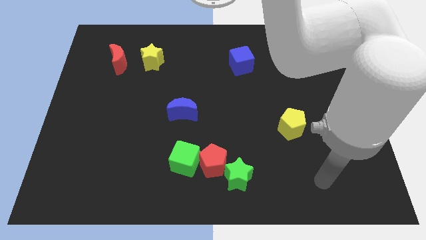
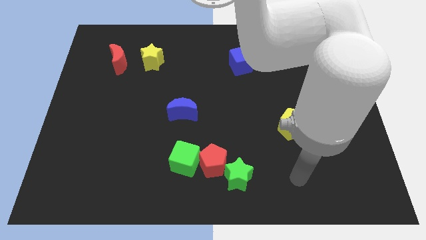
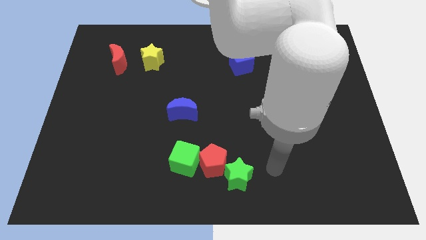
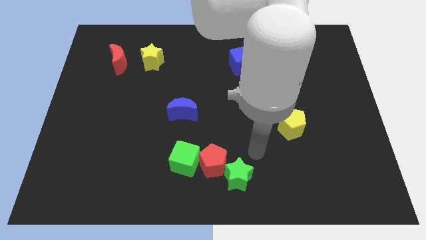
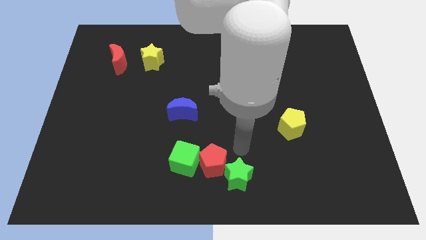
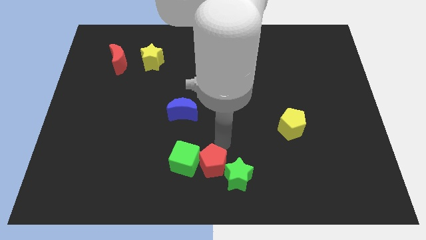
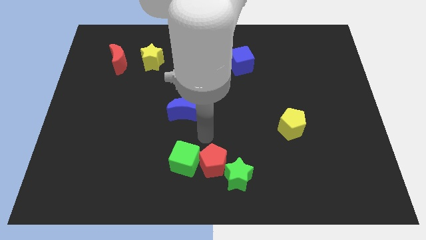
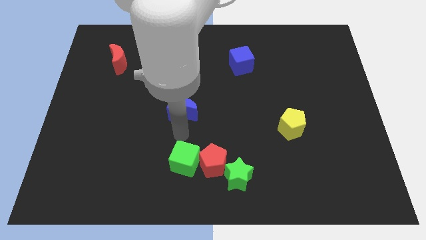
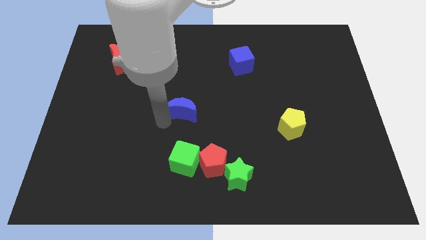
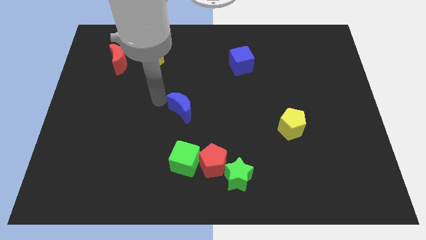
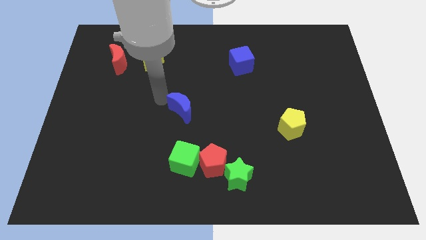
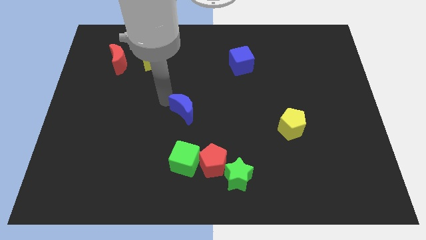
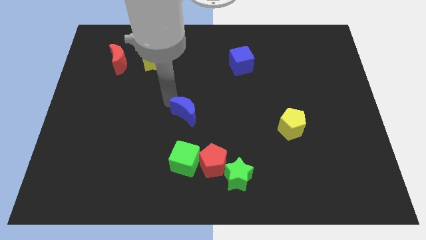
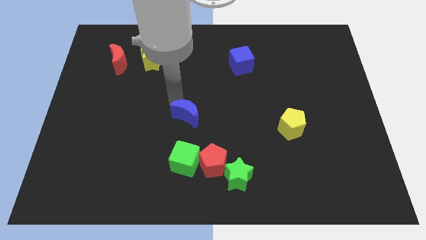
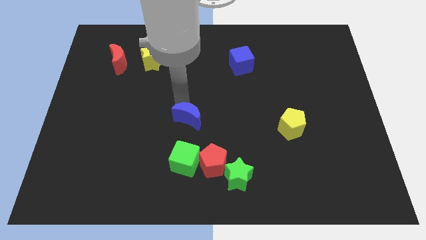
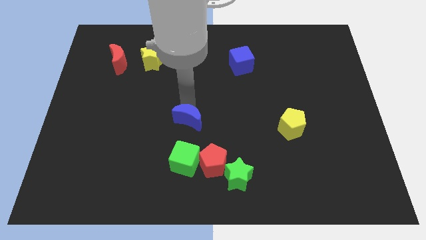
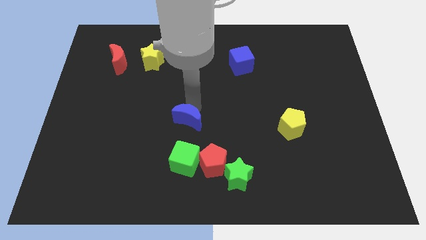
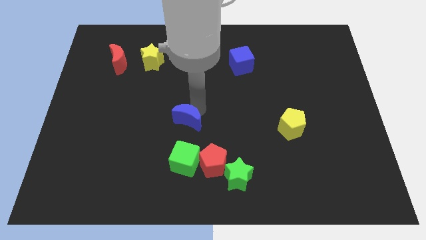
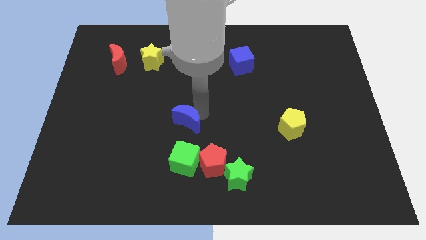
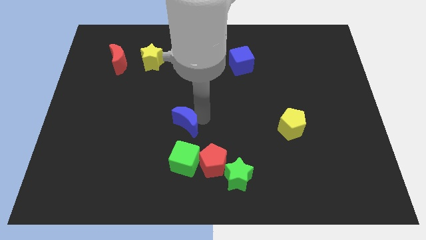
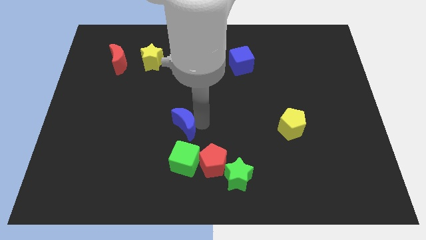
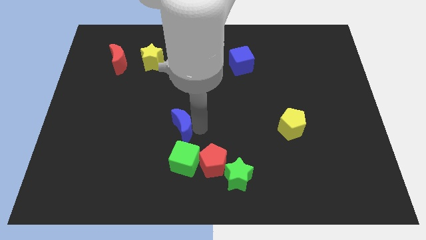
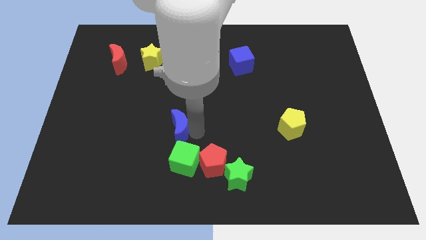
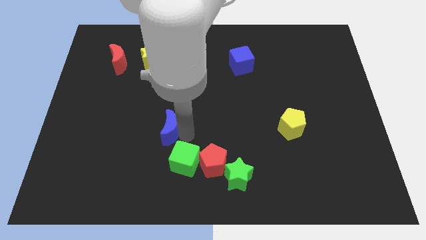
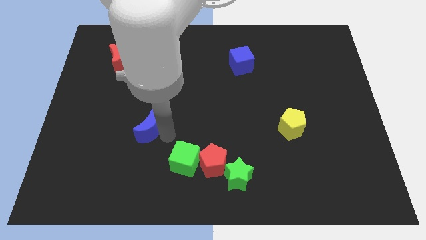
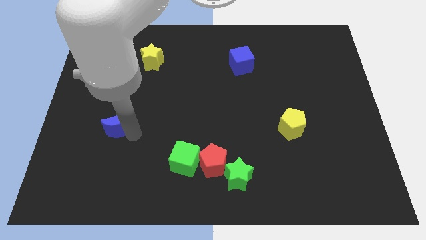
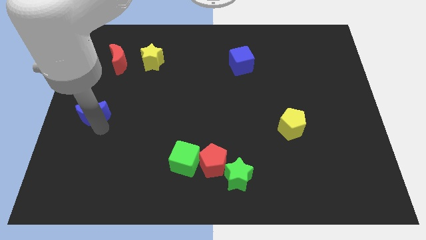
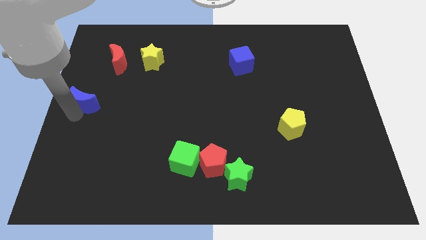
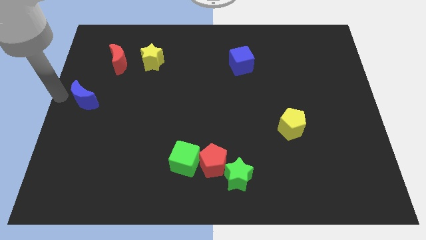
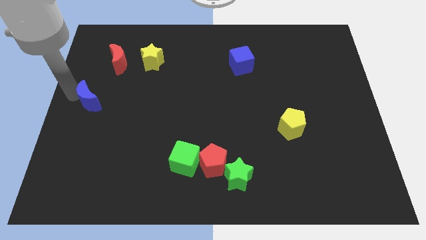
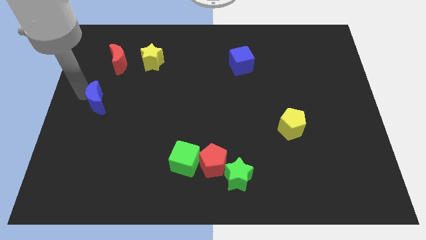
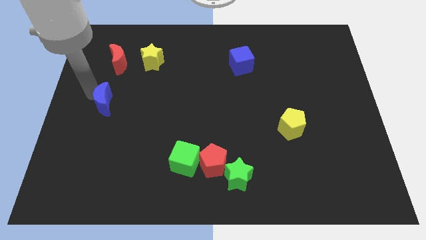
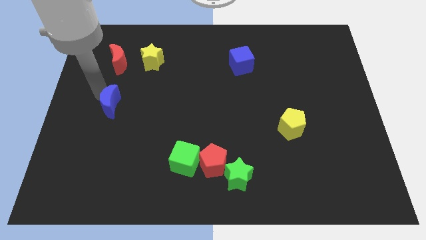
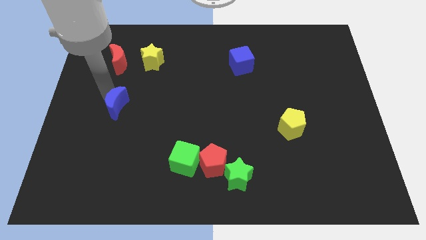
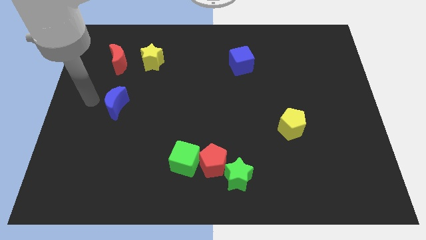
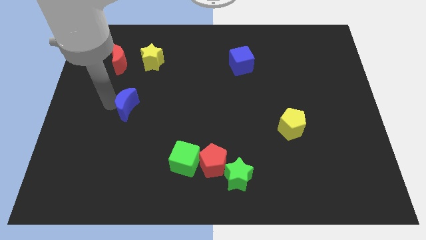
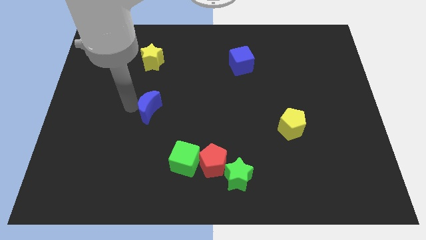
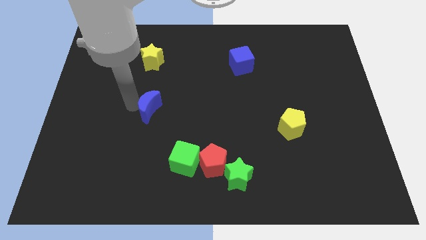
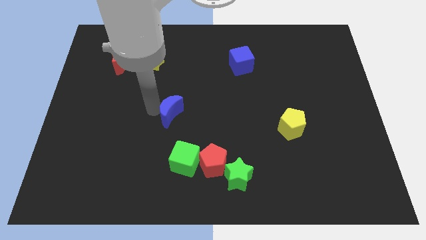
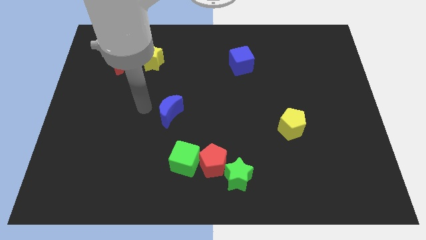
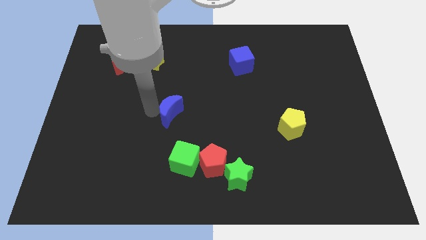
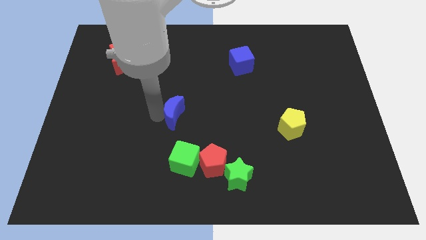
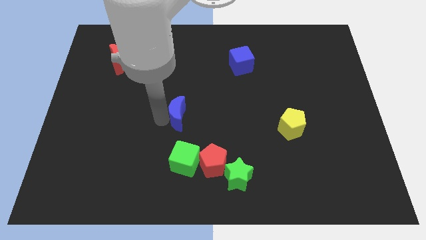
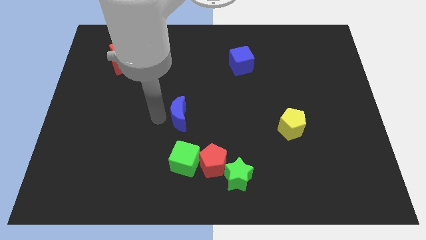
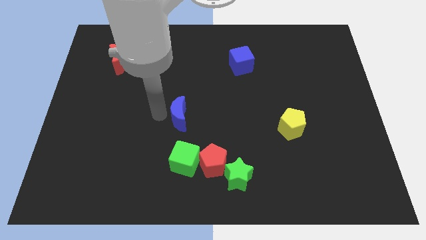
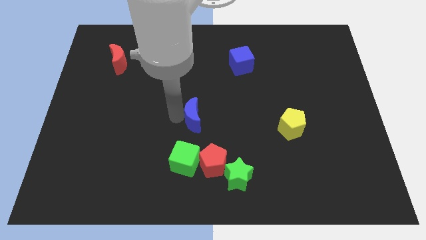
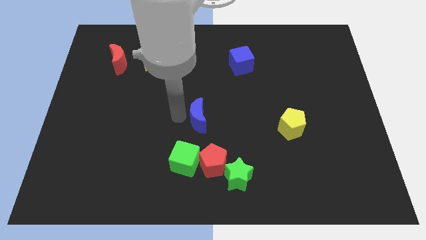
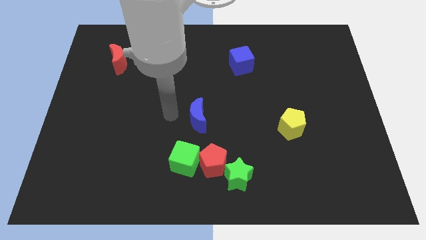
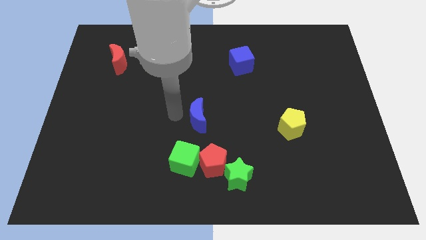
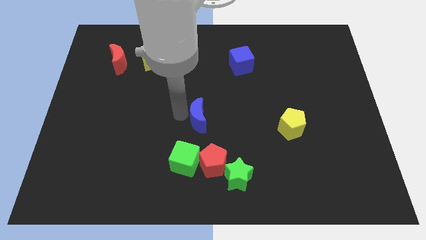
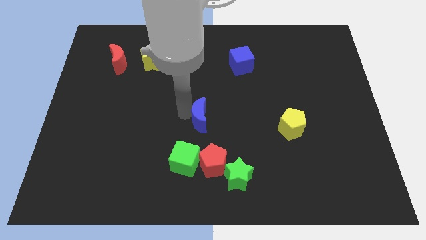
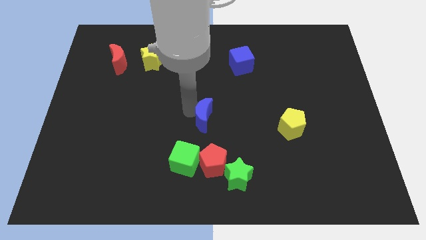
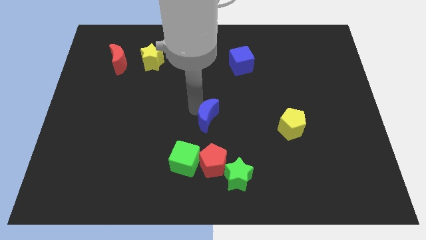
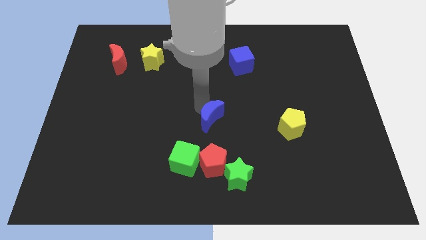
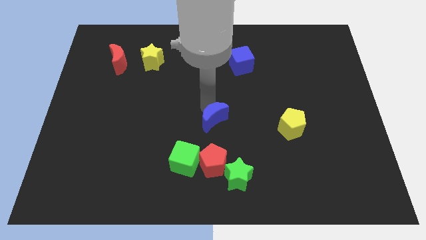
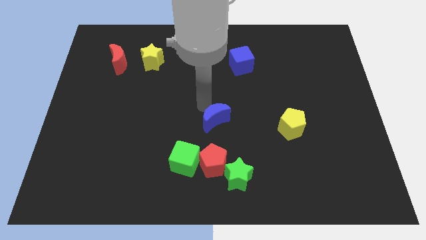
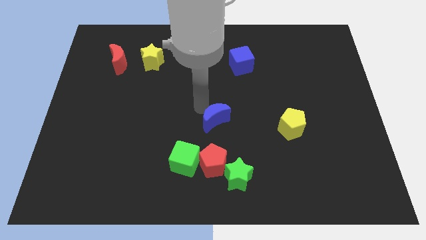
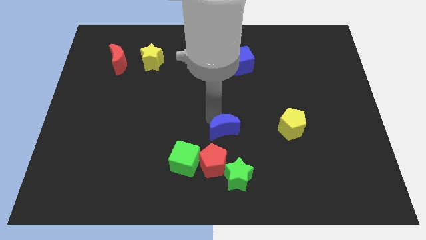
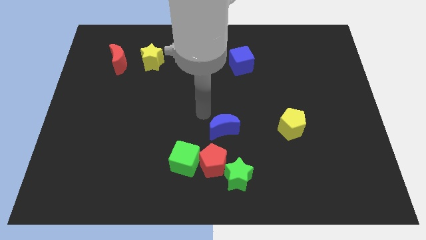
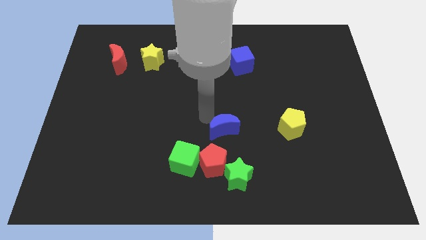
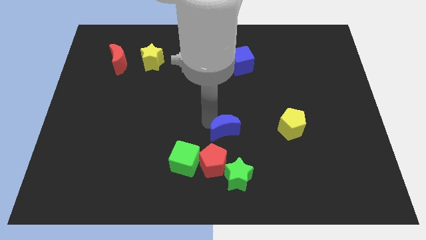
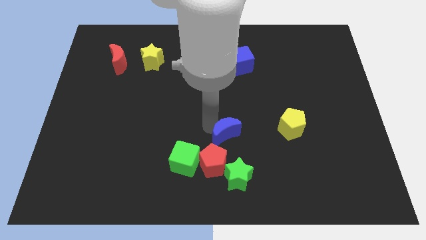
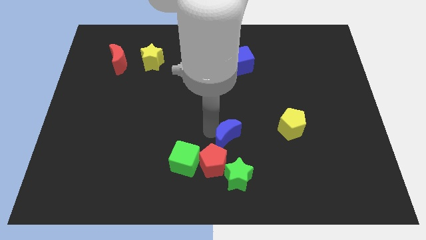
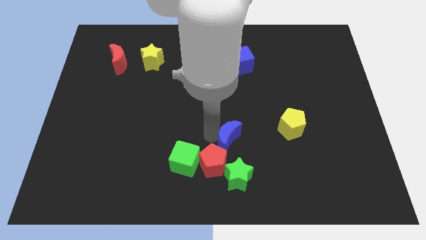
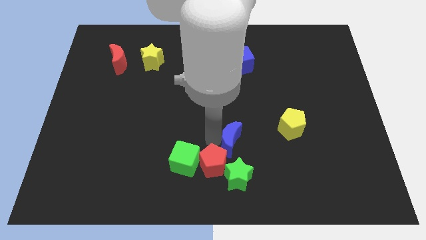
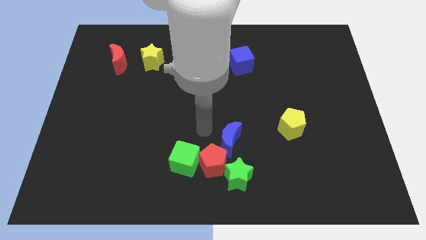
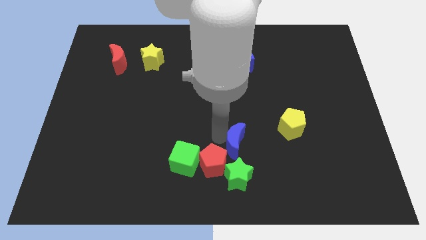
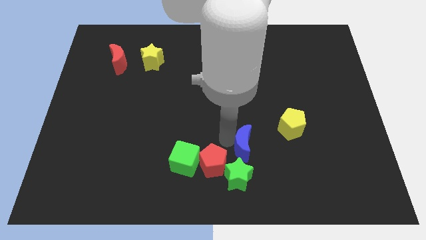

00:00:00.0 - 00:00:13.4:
slide the blue moon to the top right side of the green star

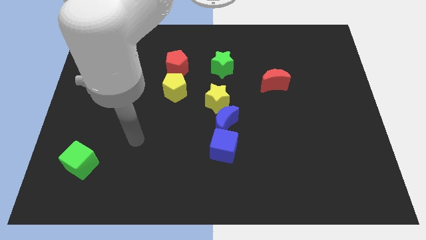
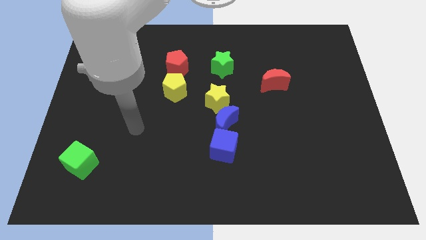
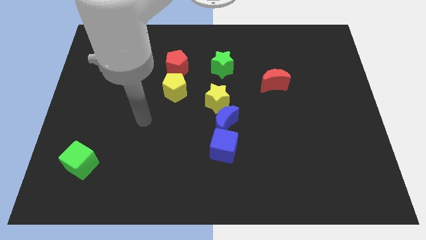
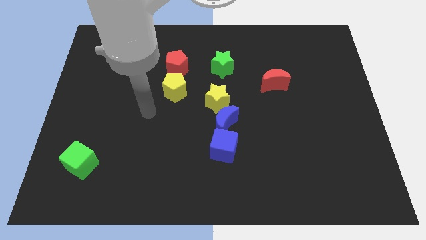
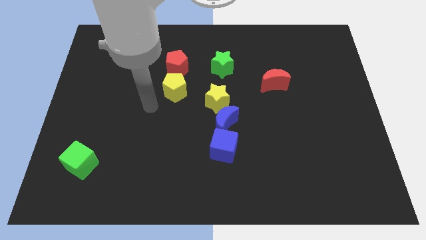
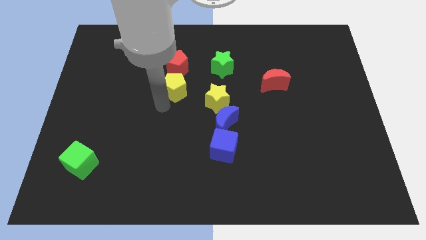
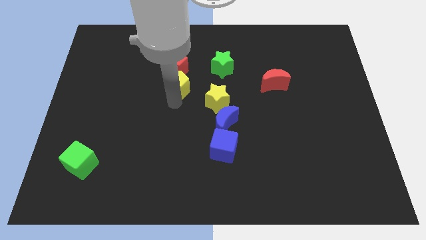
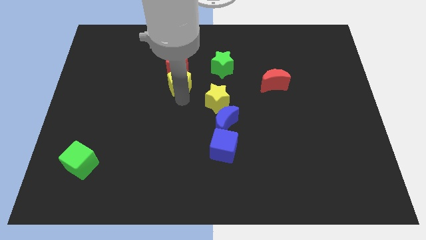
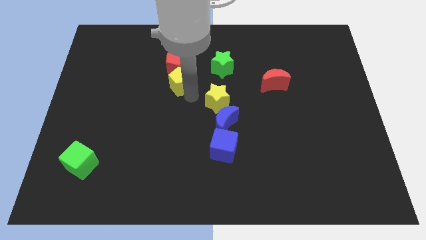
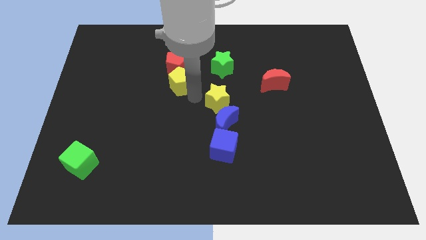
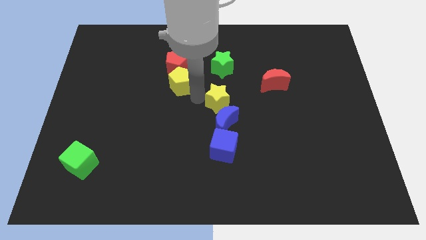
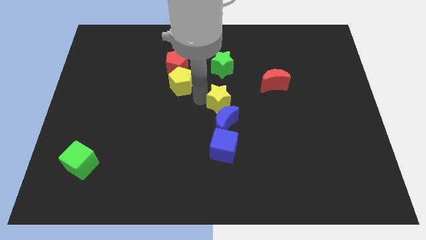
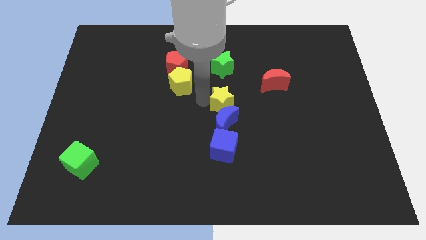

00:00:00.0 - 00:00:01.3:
slide the yellow star to the top right of the blue moon
